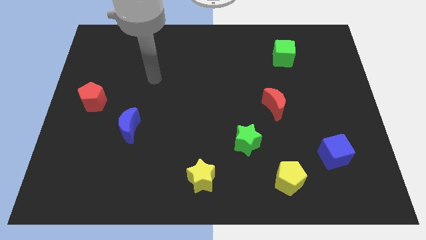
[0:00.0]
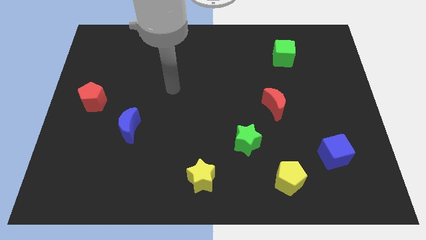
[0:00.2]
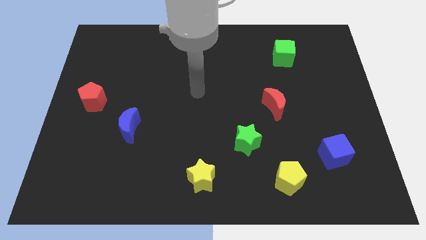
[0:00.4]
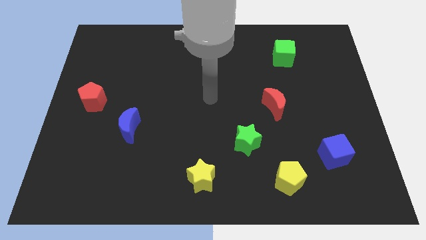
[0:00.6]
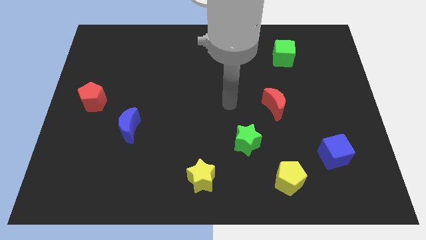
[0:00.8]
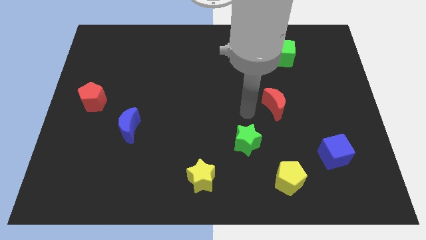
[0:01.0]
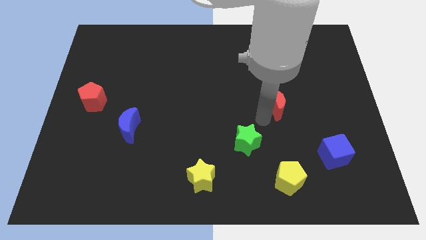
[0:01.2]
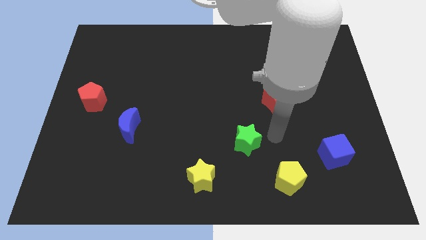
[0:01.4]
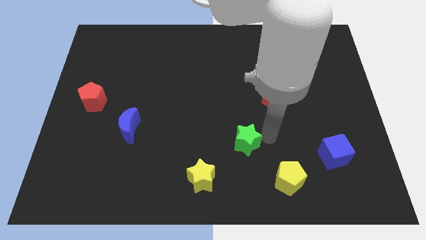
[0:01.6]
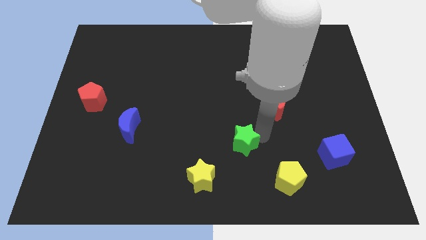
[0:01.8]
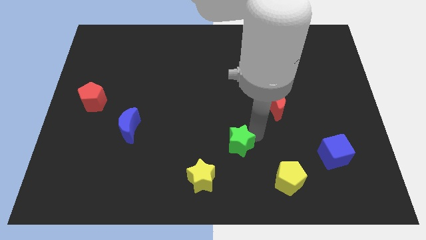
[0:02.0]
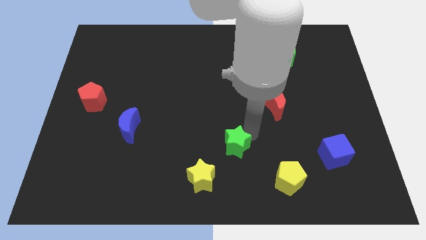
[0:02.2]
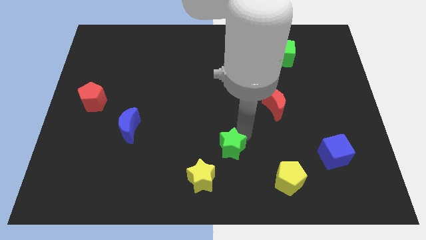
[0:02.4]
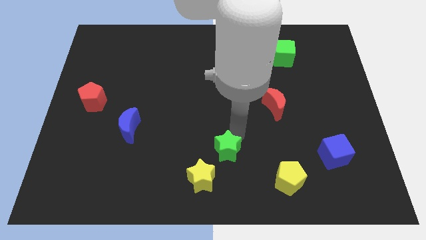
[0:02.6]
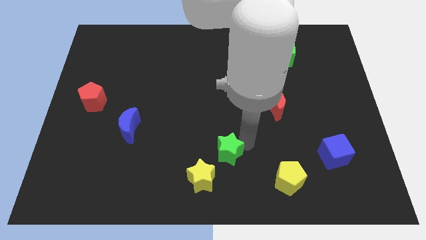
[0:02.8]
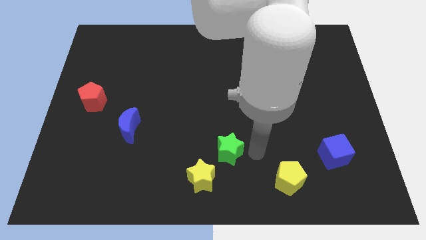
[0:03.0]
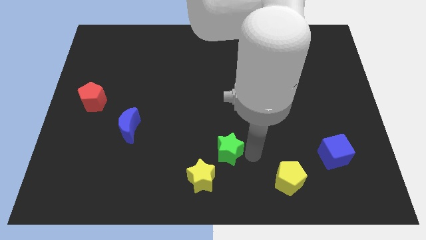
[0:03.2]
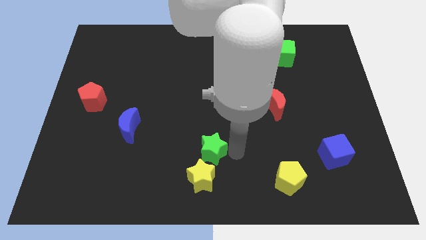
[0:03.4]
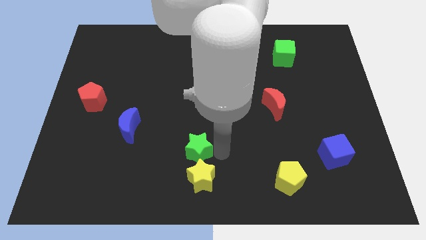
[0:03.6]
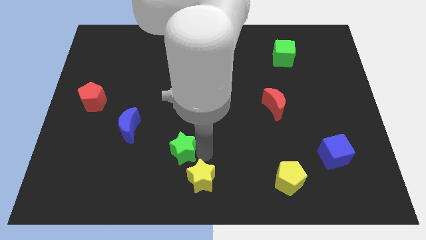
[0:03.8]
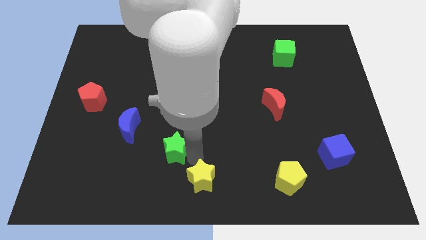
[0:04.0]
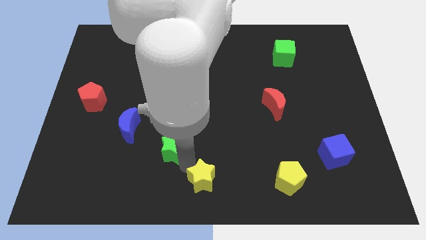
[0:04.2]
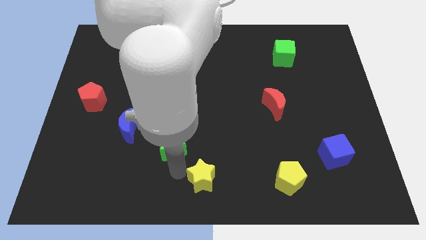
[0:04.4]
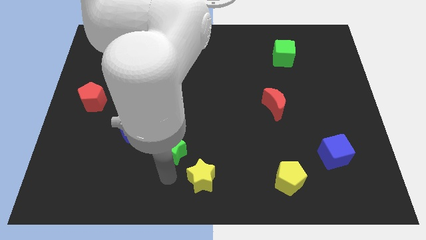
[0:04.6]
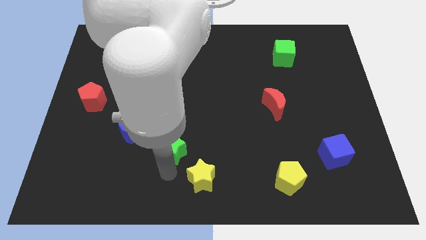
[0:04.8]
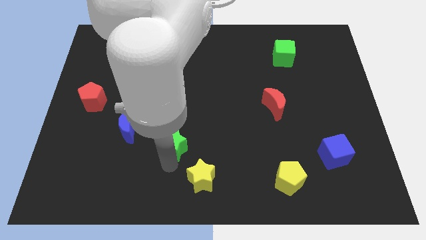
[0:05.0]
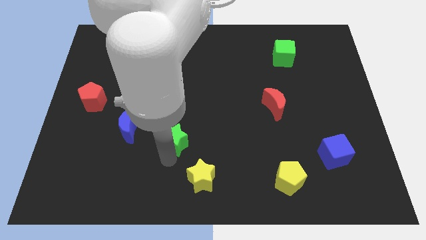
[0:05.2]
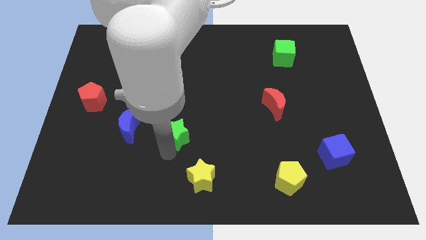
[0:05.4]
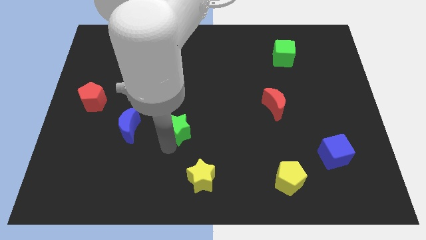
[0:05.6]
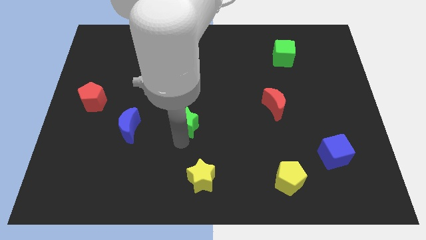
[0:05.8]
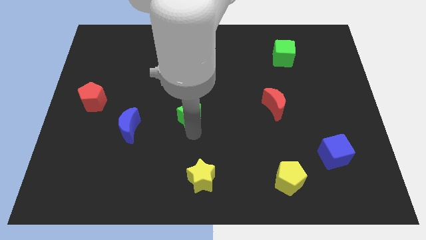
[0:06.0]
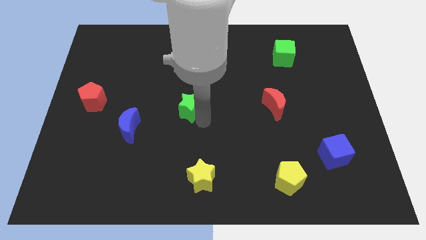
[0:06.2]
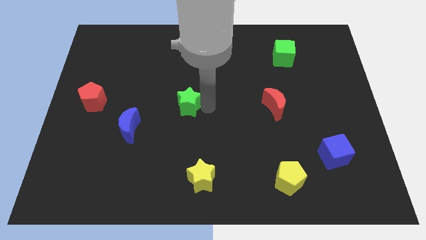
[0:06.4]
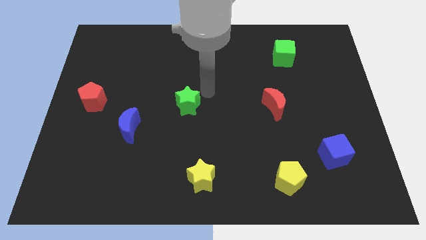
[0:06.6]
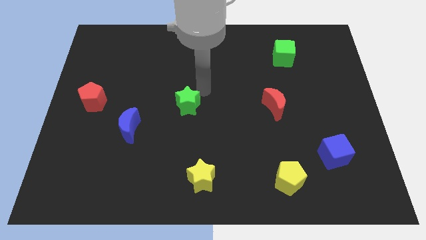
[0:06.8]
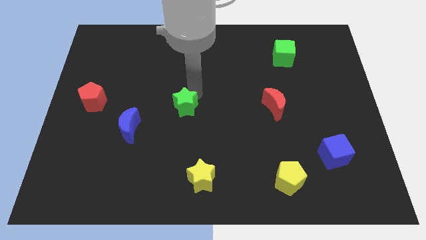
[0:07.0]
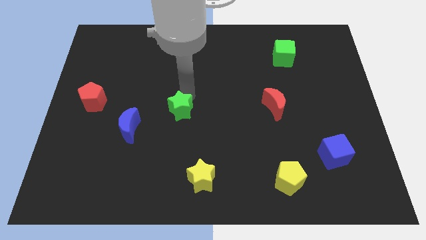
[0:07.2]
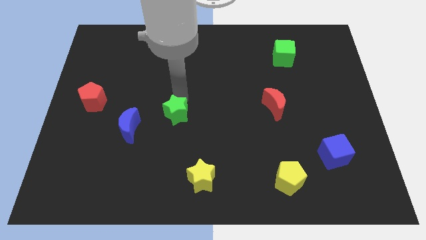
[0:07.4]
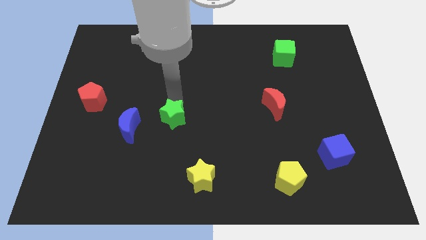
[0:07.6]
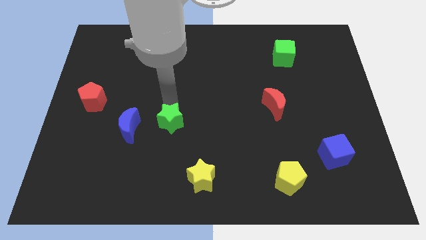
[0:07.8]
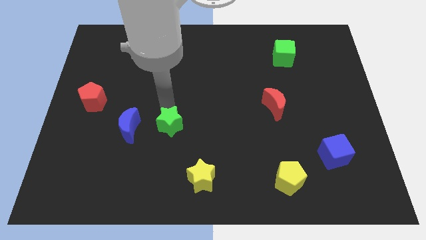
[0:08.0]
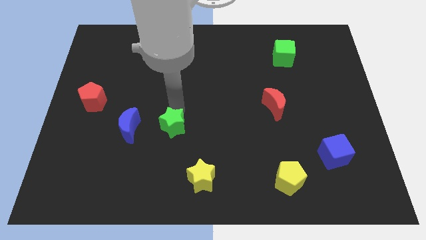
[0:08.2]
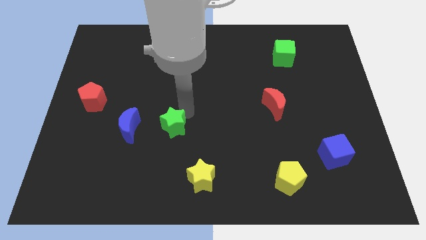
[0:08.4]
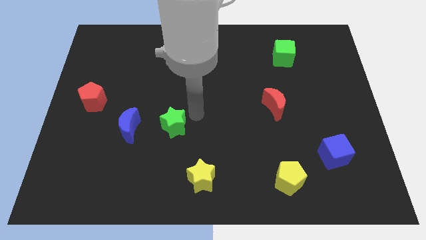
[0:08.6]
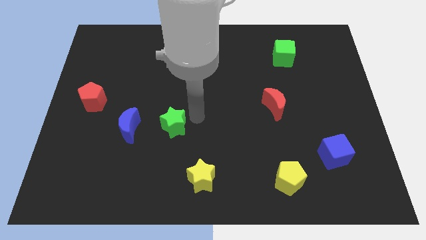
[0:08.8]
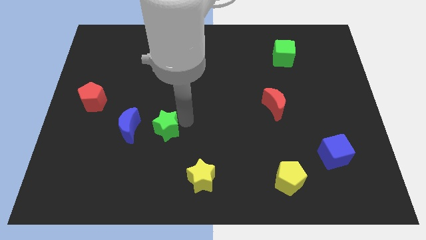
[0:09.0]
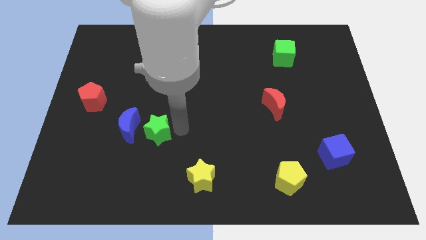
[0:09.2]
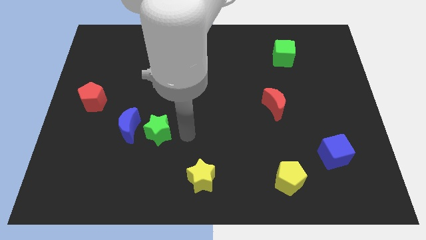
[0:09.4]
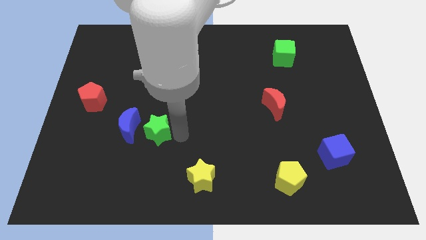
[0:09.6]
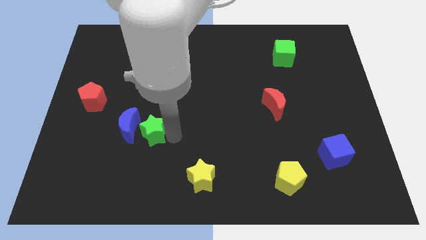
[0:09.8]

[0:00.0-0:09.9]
move the green star towards the blue moon

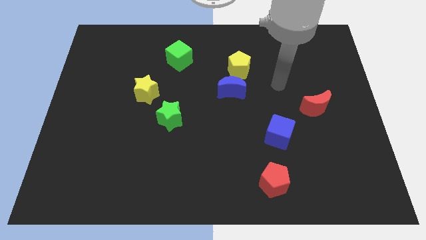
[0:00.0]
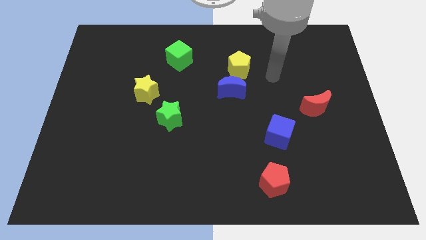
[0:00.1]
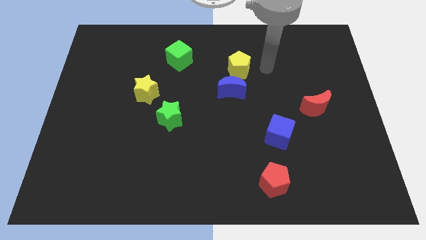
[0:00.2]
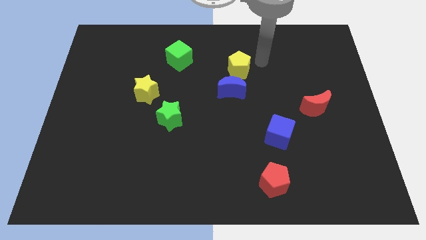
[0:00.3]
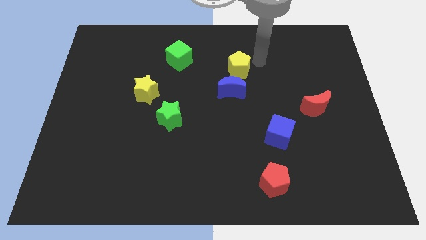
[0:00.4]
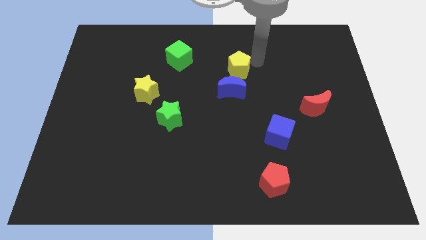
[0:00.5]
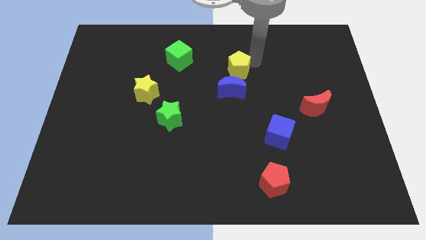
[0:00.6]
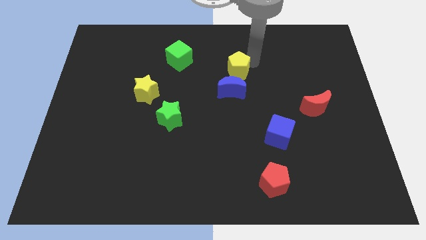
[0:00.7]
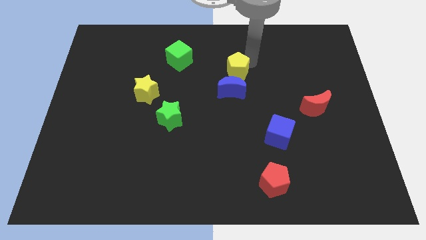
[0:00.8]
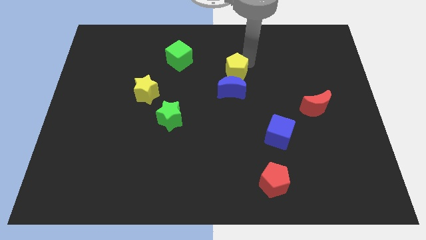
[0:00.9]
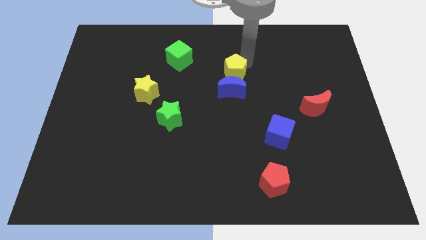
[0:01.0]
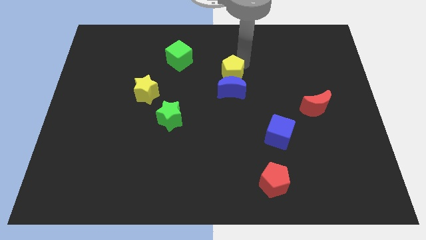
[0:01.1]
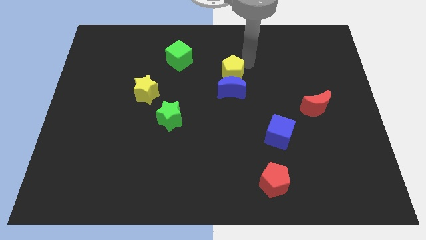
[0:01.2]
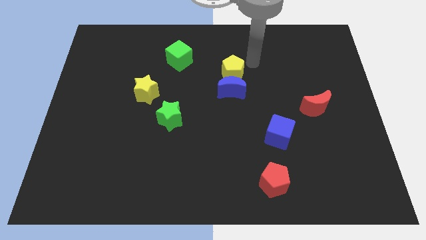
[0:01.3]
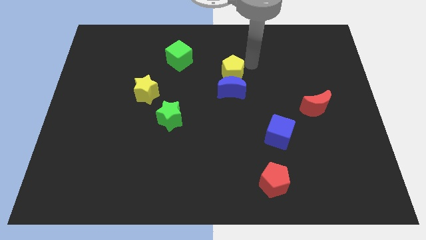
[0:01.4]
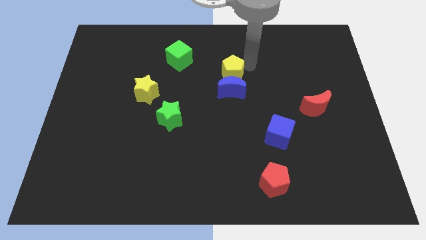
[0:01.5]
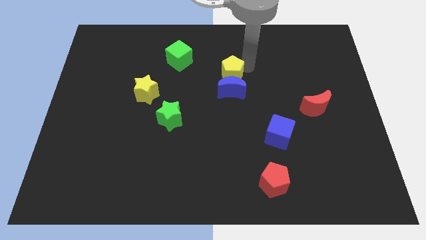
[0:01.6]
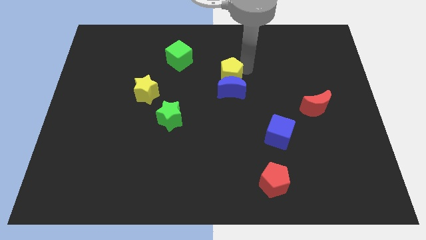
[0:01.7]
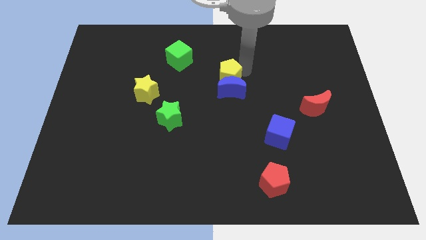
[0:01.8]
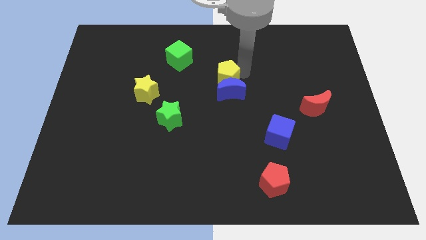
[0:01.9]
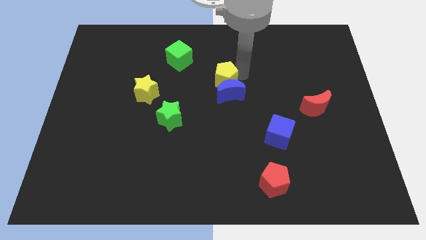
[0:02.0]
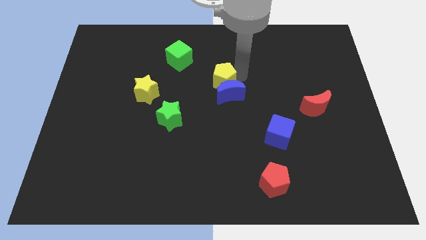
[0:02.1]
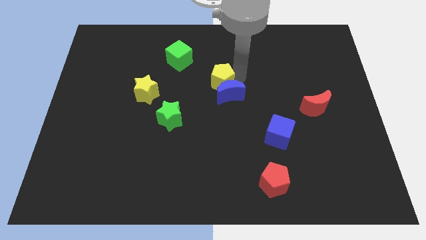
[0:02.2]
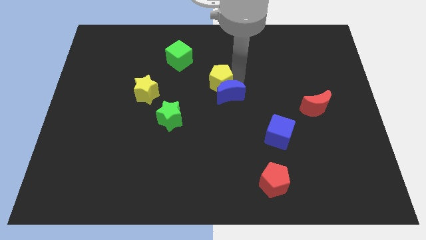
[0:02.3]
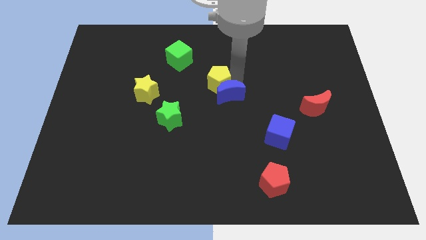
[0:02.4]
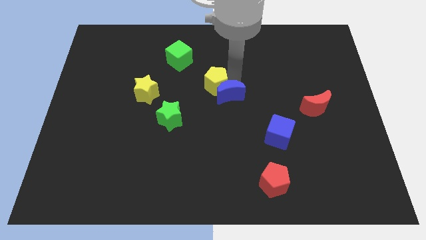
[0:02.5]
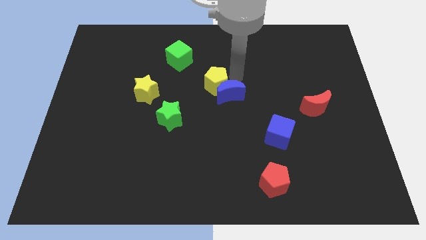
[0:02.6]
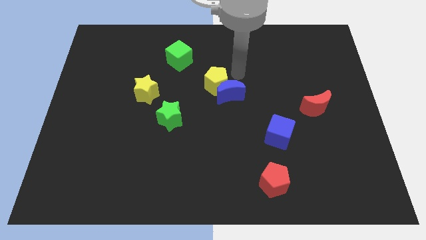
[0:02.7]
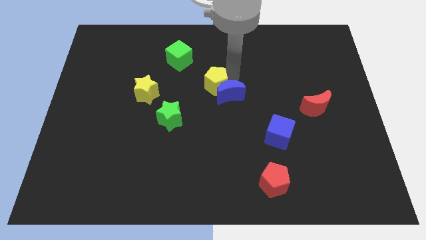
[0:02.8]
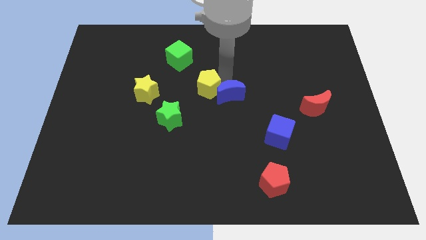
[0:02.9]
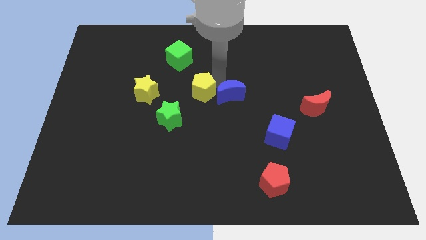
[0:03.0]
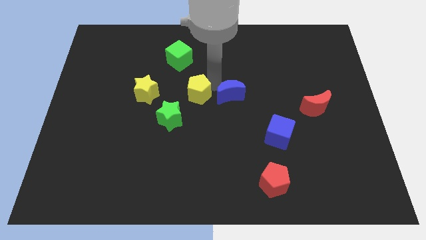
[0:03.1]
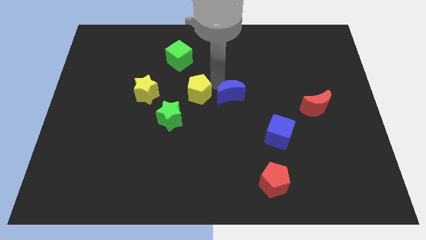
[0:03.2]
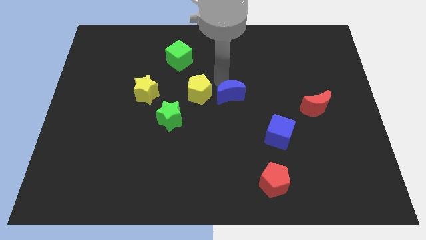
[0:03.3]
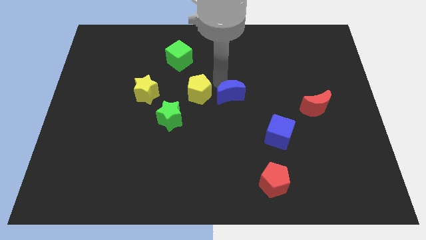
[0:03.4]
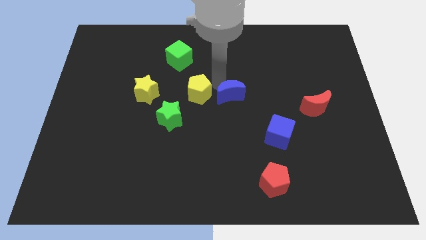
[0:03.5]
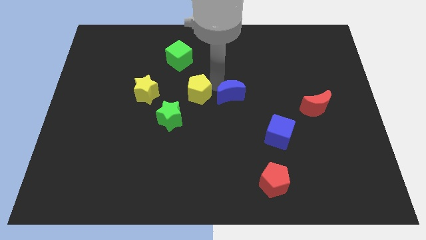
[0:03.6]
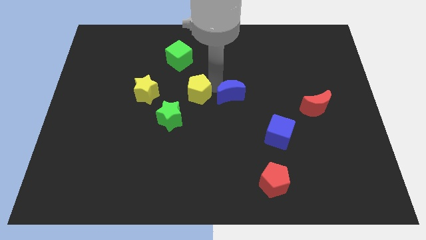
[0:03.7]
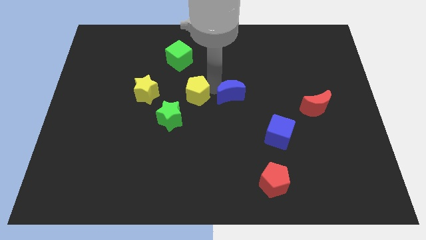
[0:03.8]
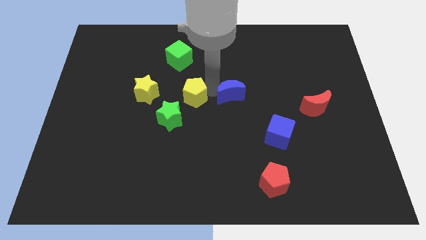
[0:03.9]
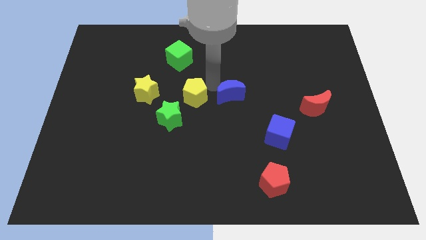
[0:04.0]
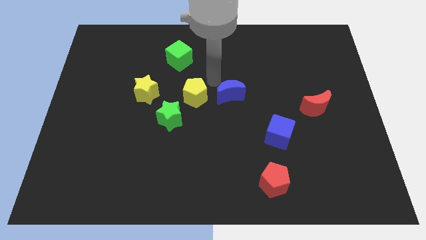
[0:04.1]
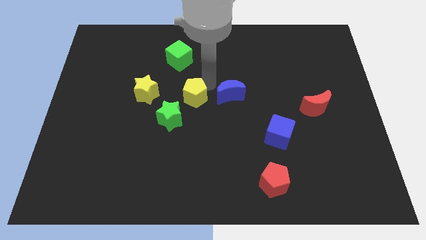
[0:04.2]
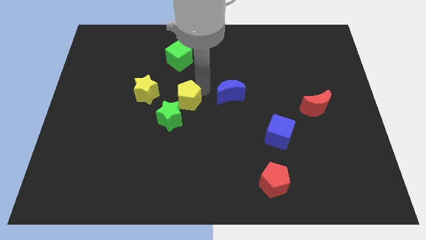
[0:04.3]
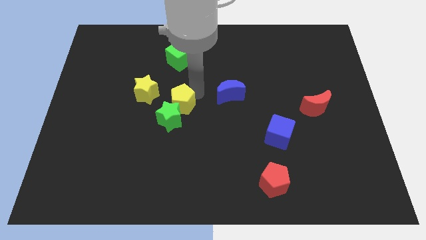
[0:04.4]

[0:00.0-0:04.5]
move the yellow pentagon to the green star
